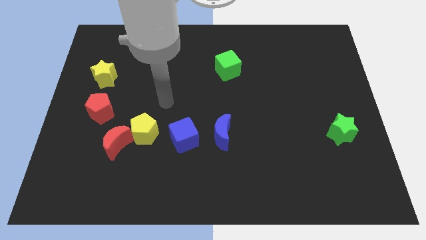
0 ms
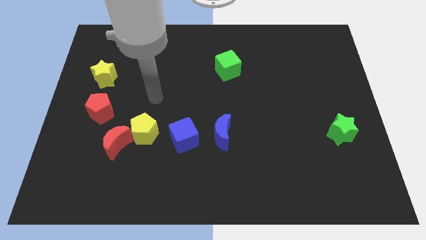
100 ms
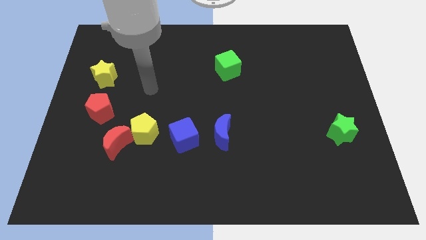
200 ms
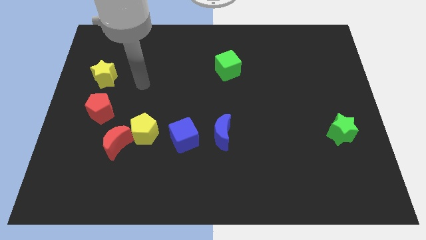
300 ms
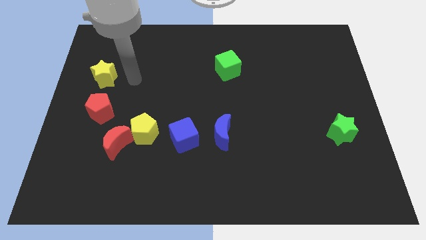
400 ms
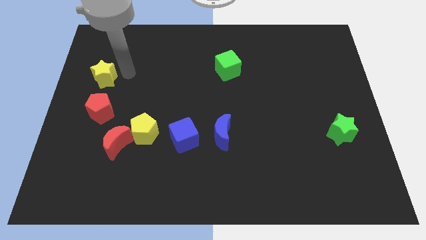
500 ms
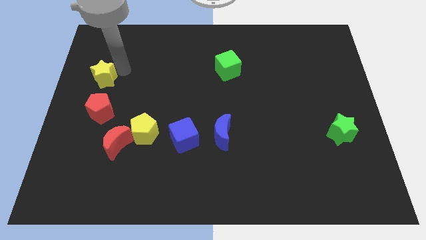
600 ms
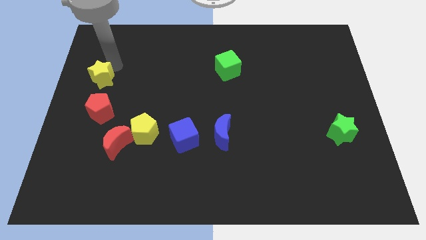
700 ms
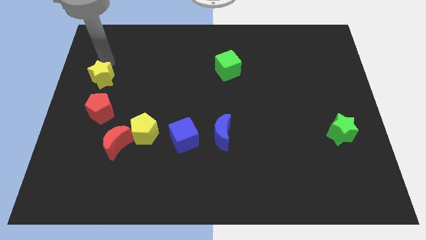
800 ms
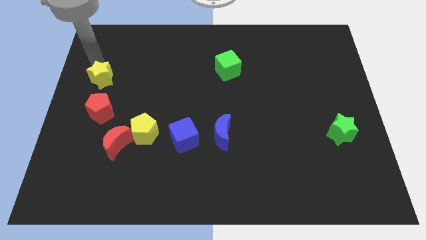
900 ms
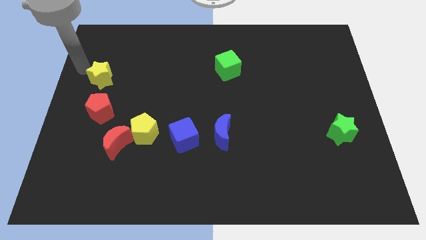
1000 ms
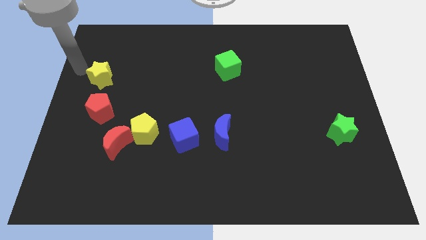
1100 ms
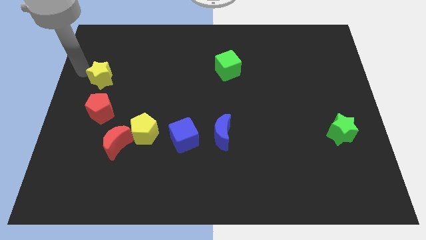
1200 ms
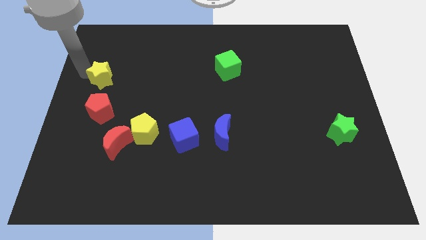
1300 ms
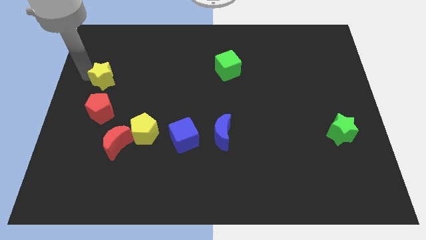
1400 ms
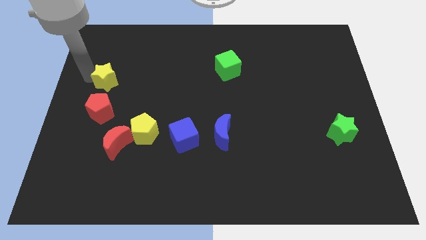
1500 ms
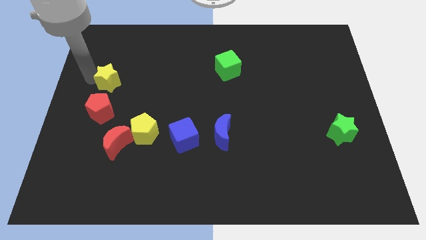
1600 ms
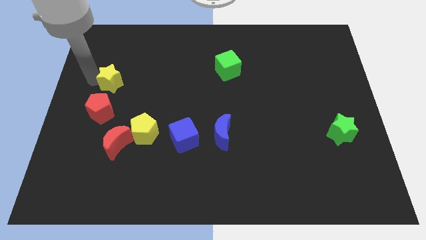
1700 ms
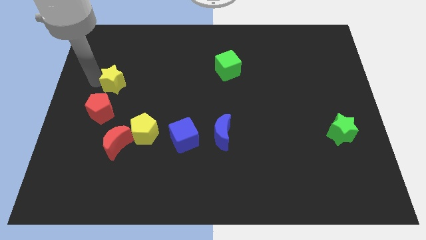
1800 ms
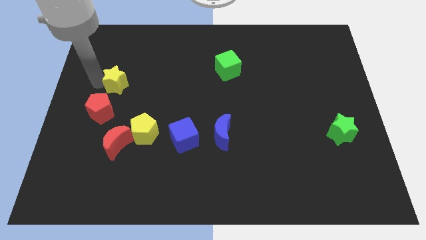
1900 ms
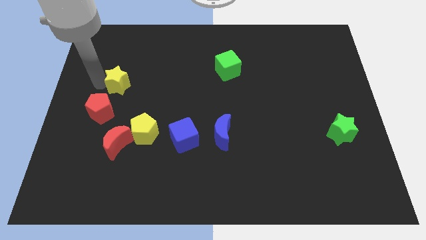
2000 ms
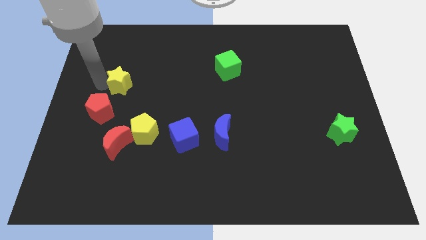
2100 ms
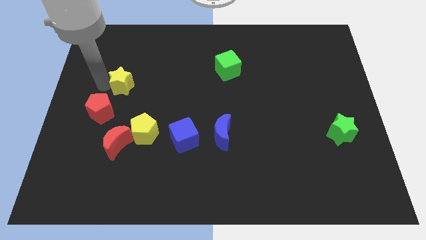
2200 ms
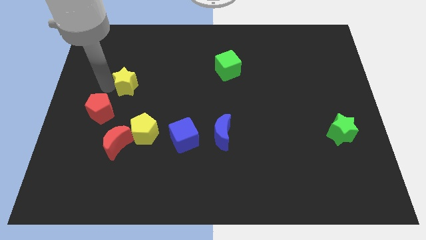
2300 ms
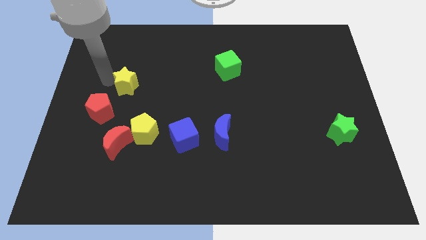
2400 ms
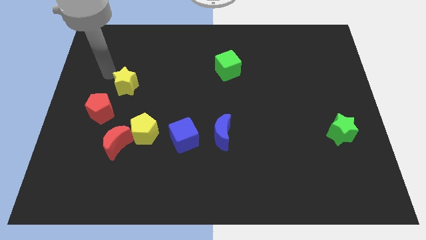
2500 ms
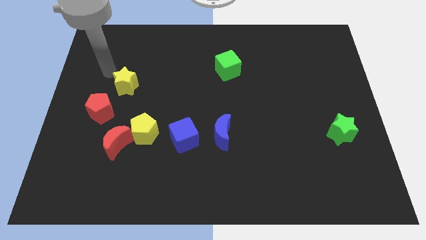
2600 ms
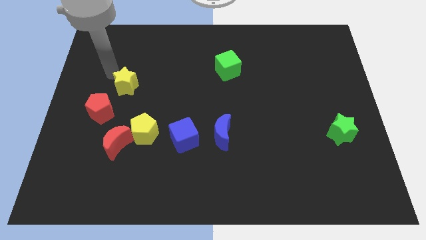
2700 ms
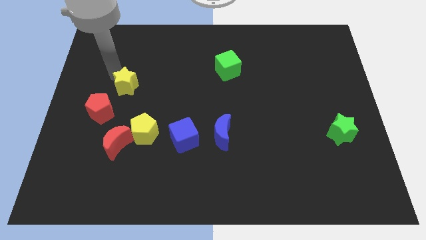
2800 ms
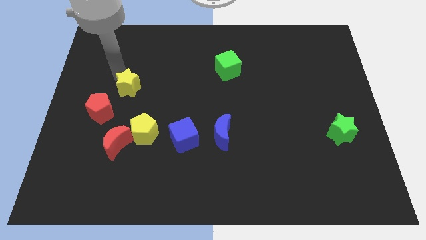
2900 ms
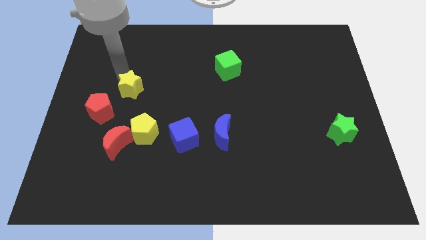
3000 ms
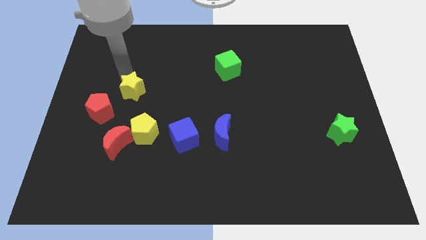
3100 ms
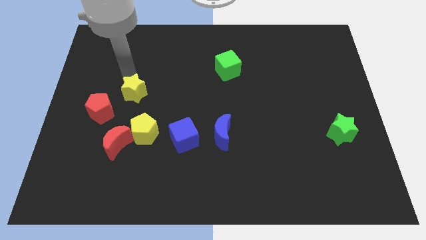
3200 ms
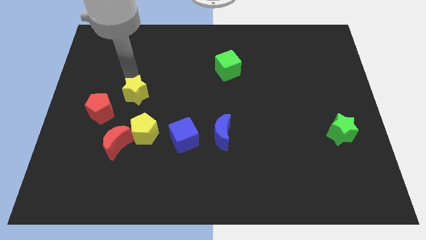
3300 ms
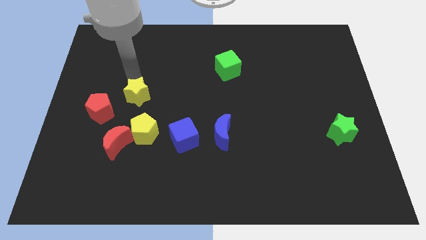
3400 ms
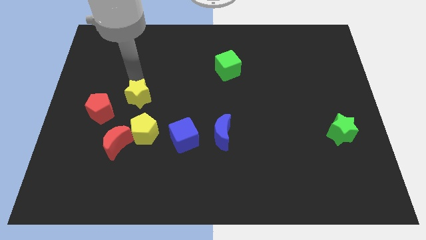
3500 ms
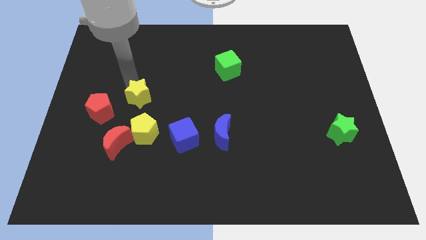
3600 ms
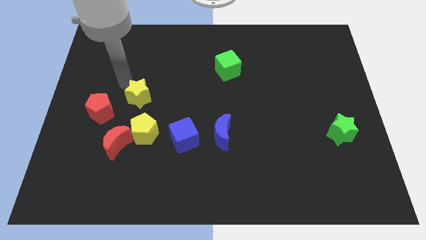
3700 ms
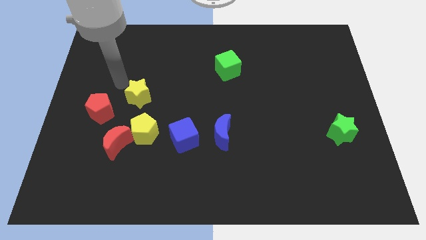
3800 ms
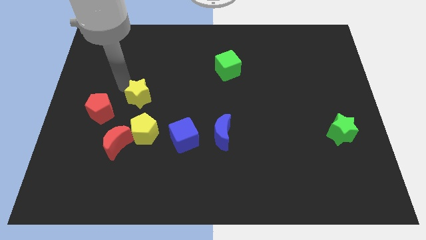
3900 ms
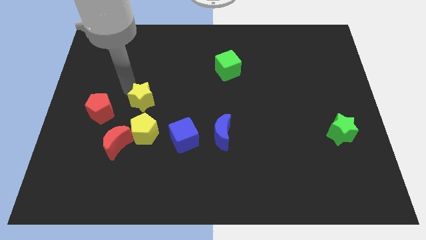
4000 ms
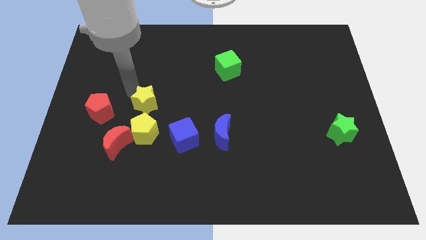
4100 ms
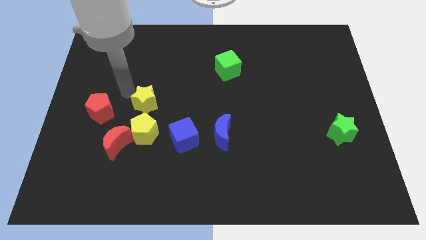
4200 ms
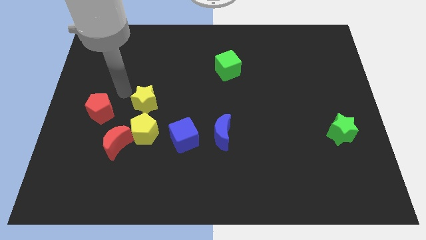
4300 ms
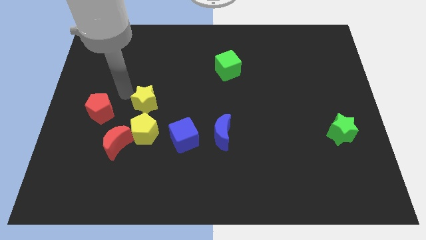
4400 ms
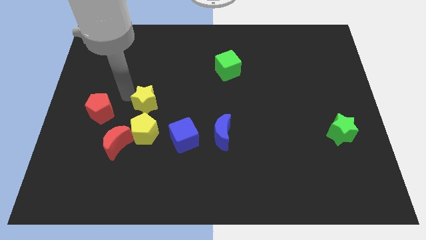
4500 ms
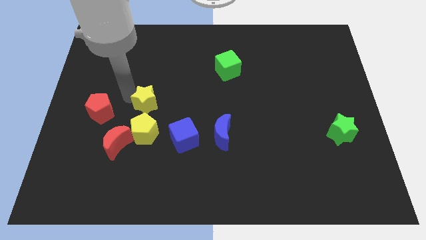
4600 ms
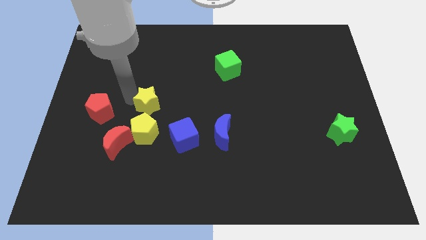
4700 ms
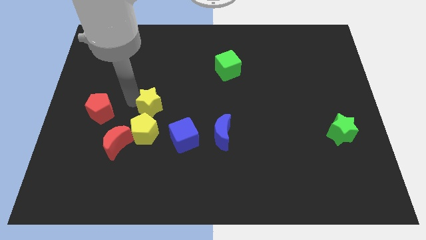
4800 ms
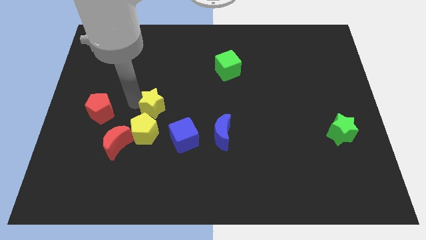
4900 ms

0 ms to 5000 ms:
push the yellow star diagonally up and to the right of the yellow pentagon

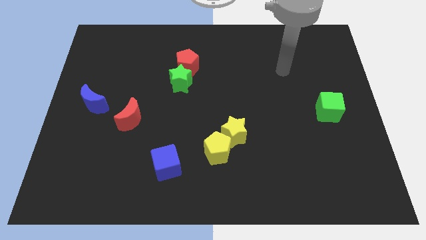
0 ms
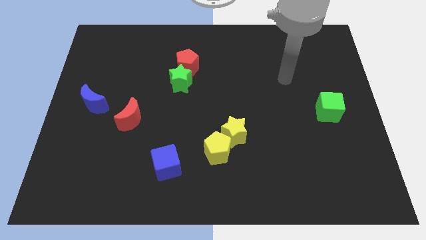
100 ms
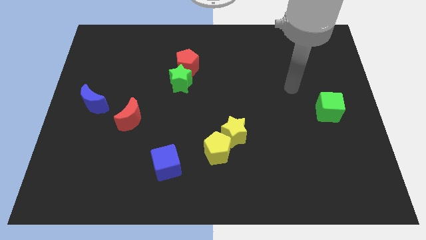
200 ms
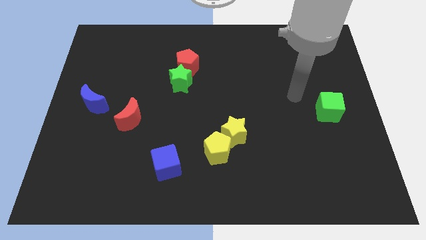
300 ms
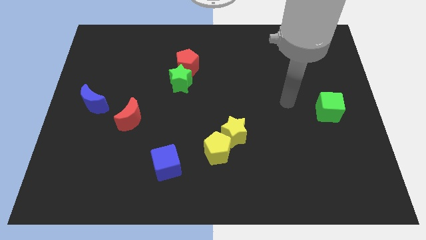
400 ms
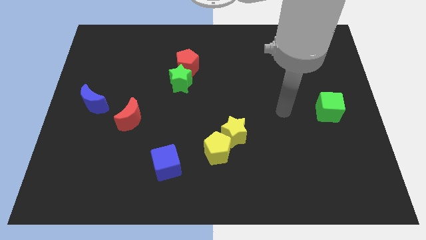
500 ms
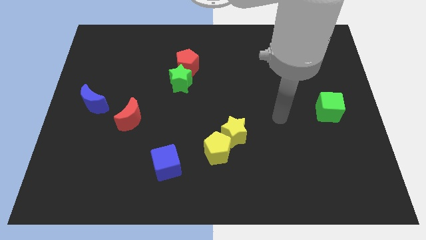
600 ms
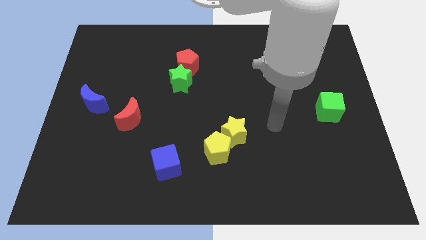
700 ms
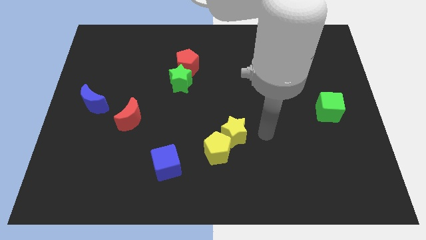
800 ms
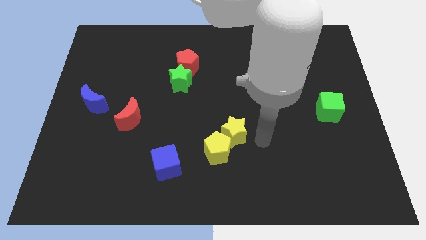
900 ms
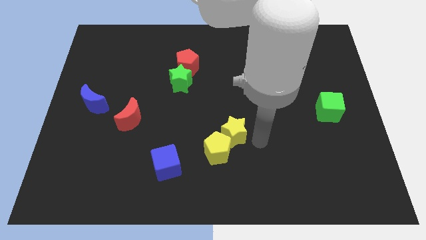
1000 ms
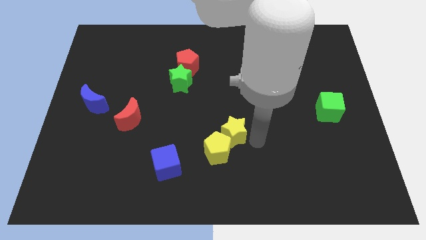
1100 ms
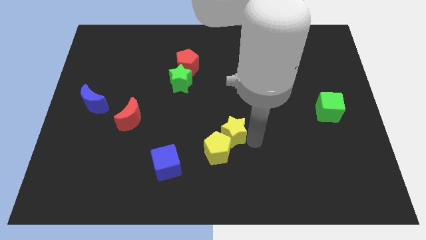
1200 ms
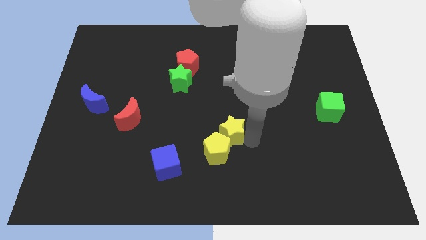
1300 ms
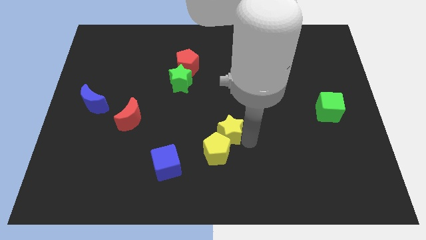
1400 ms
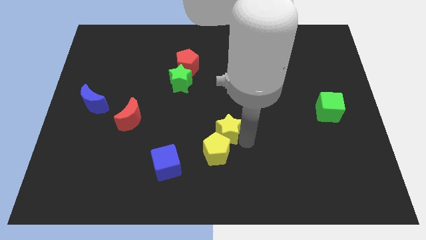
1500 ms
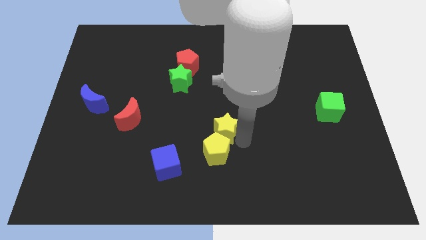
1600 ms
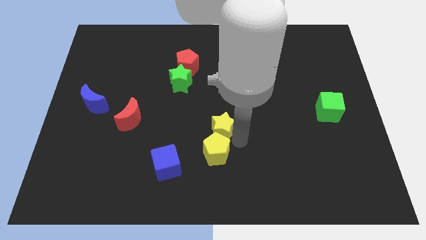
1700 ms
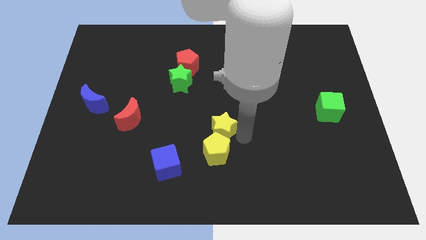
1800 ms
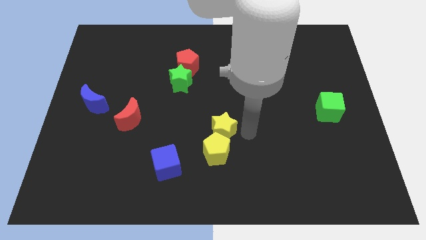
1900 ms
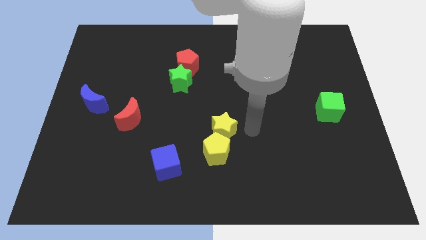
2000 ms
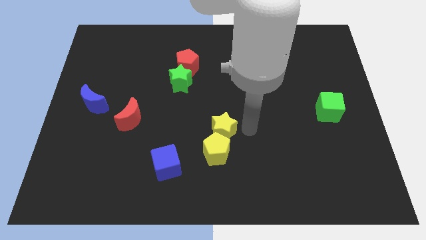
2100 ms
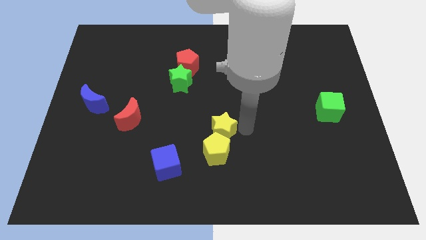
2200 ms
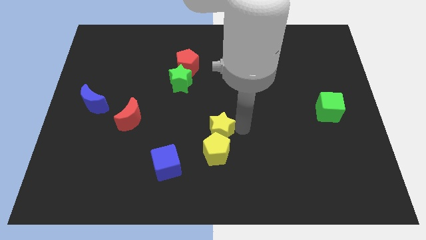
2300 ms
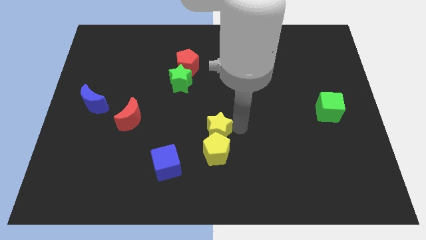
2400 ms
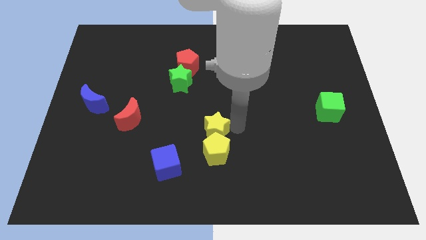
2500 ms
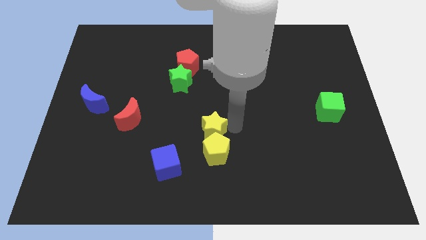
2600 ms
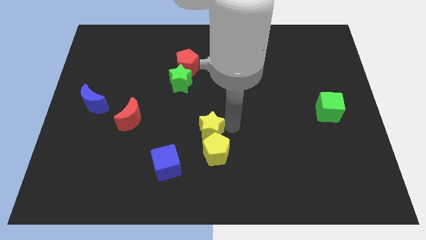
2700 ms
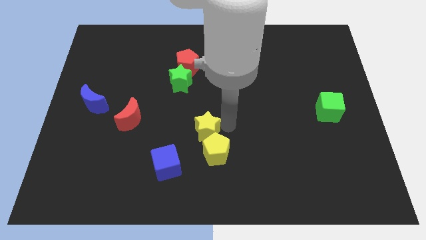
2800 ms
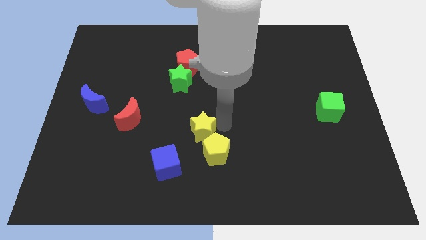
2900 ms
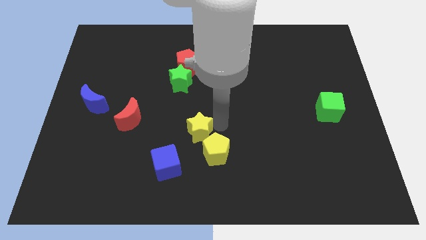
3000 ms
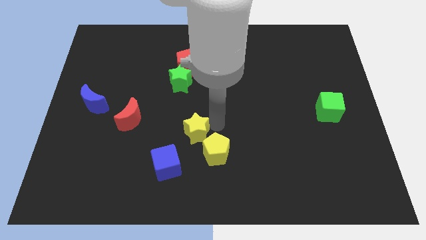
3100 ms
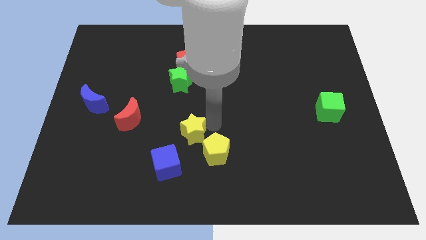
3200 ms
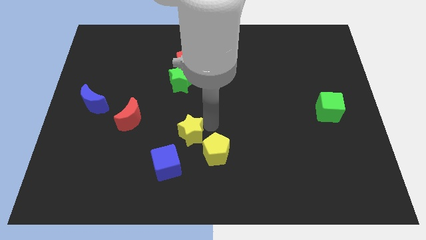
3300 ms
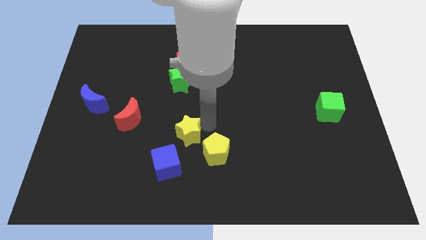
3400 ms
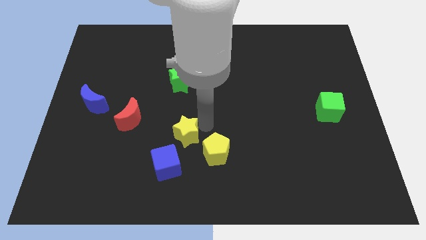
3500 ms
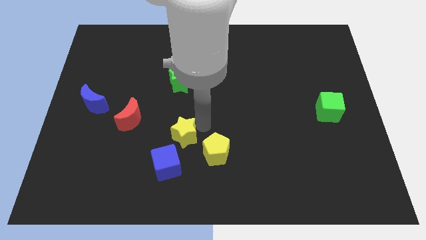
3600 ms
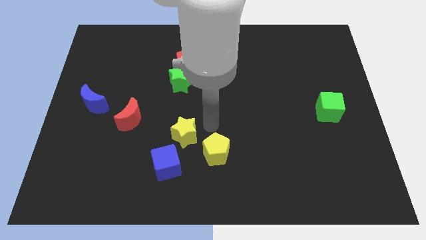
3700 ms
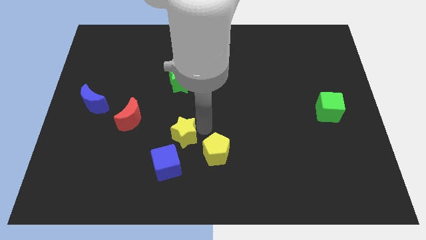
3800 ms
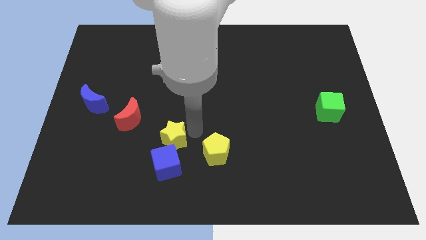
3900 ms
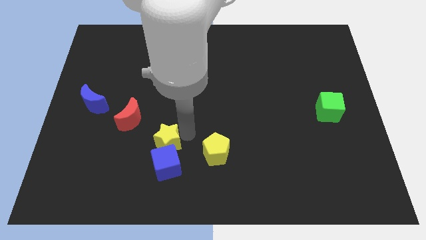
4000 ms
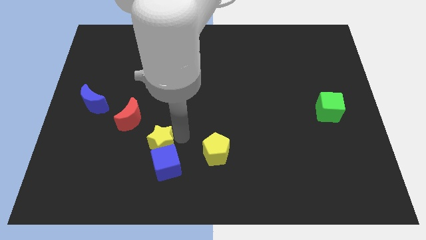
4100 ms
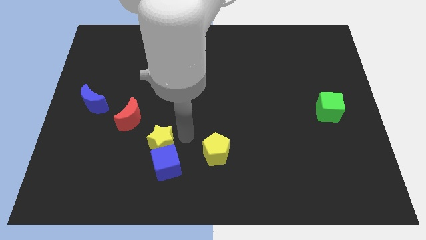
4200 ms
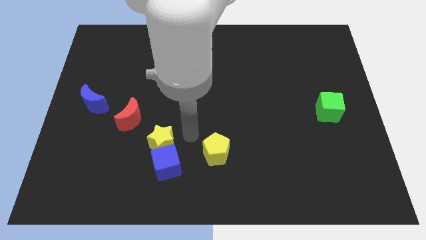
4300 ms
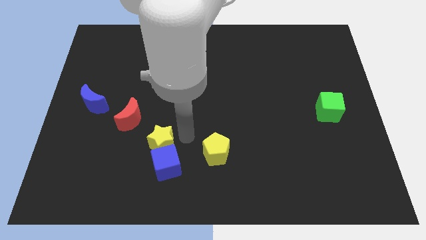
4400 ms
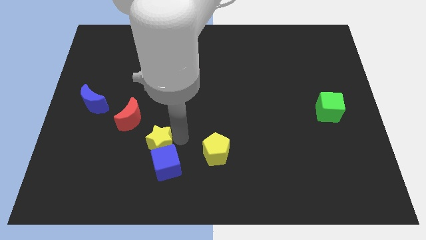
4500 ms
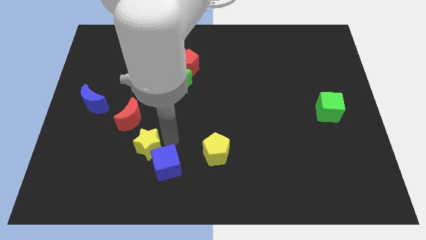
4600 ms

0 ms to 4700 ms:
slide the yellow star left of the blue cube
